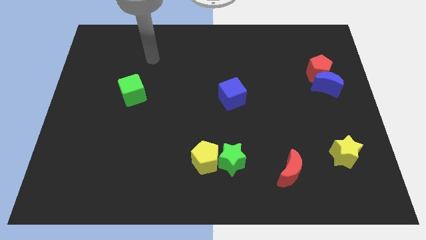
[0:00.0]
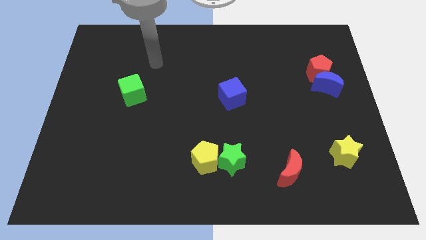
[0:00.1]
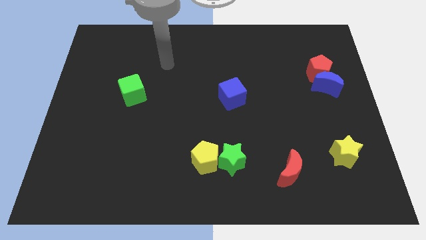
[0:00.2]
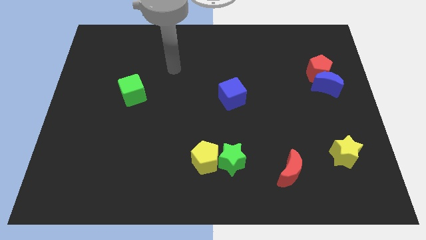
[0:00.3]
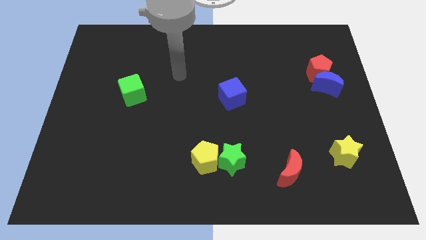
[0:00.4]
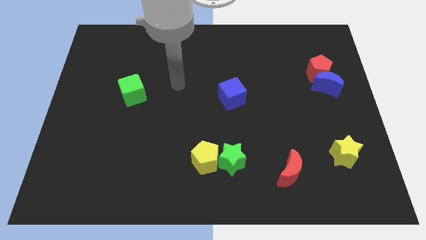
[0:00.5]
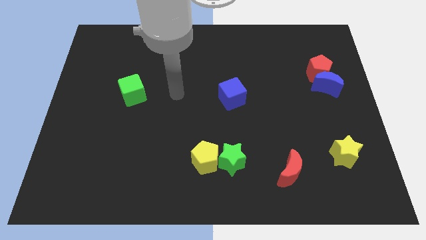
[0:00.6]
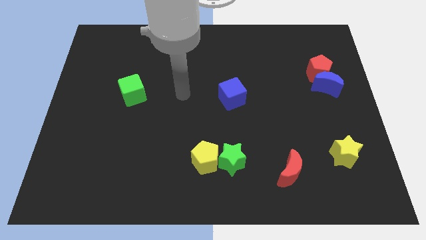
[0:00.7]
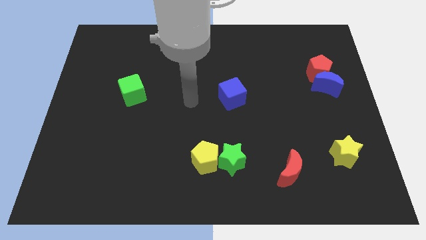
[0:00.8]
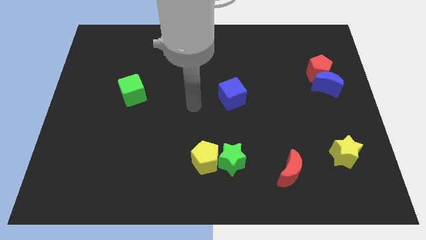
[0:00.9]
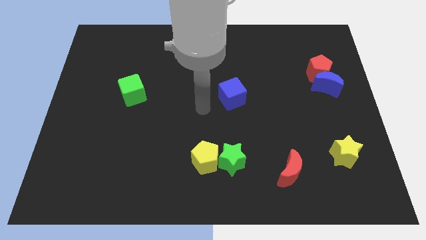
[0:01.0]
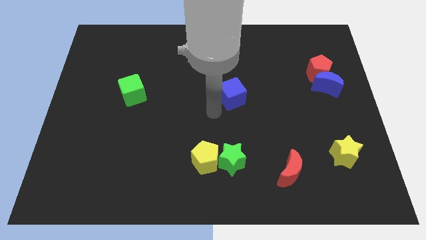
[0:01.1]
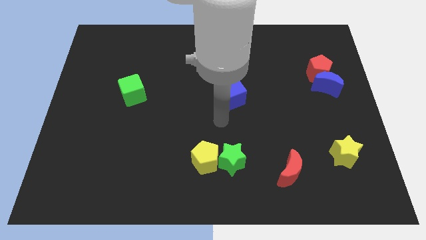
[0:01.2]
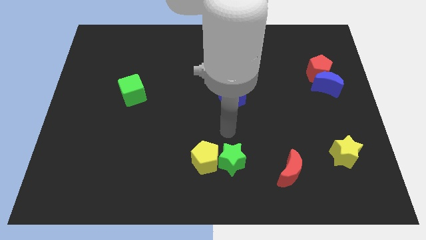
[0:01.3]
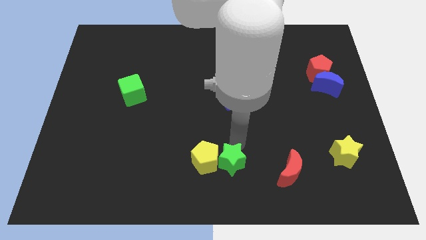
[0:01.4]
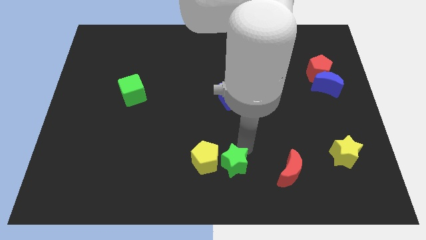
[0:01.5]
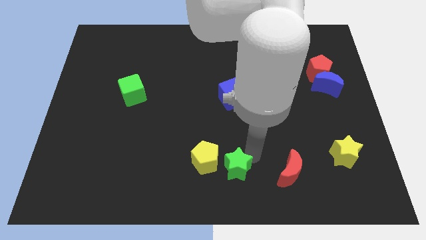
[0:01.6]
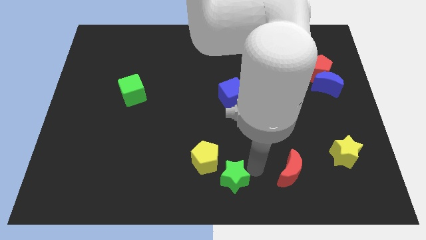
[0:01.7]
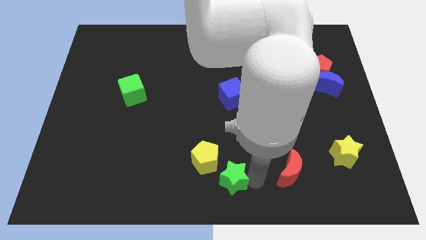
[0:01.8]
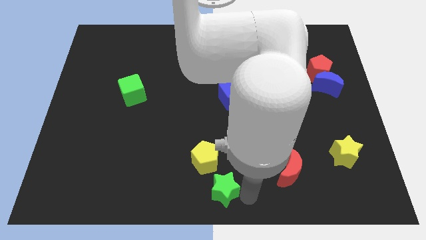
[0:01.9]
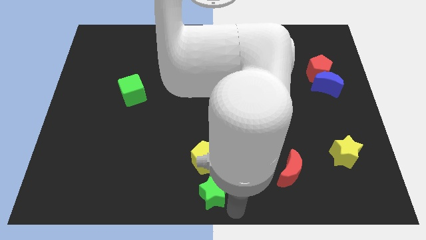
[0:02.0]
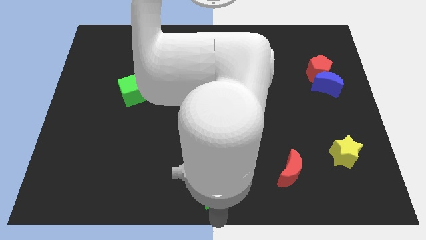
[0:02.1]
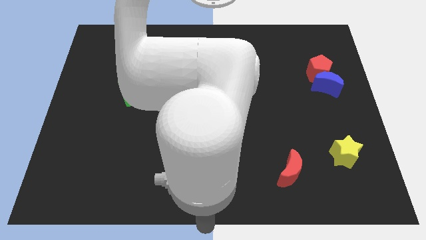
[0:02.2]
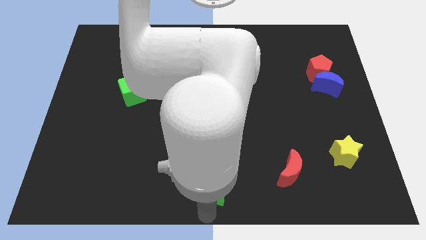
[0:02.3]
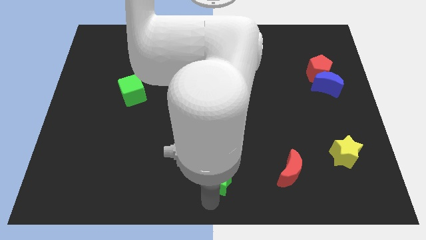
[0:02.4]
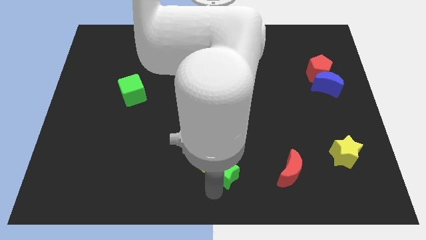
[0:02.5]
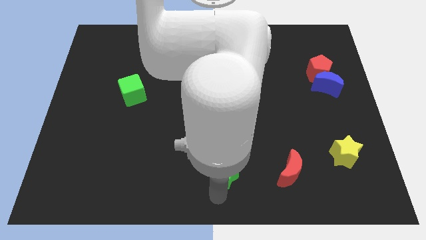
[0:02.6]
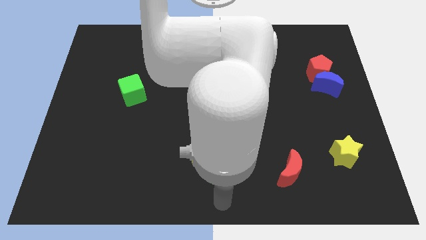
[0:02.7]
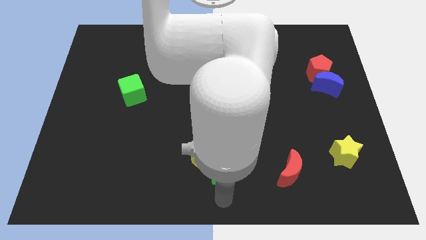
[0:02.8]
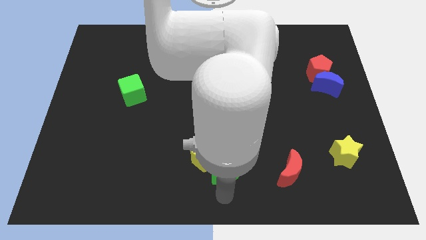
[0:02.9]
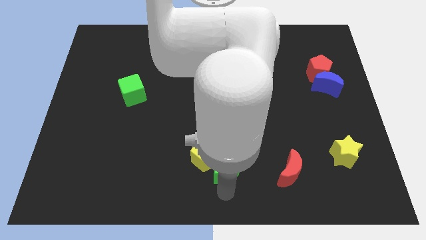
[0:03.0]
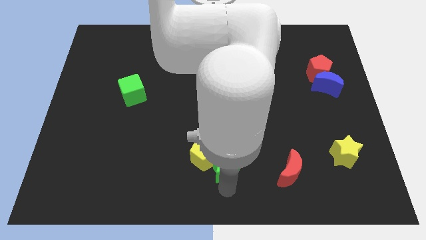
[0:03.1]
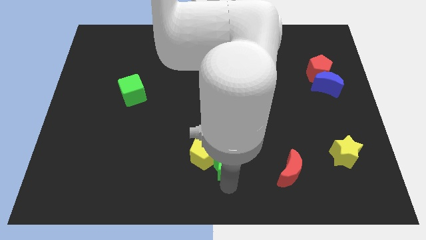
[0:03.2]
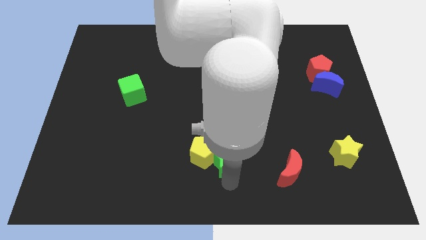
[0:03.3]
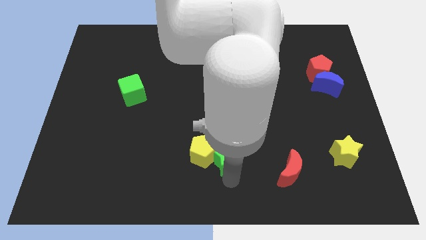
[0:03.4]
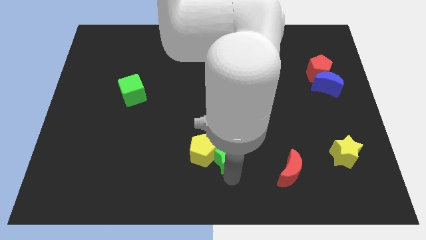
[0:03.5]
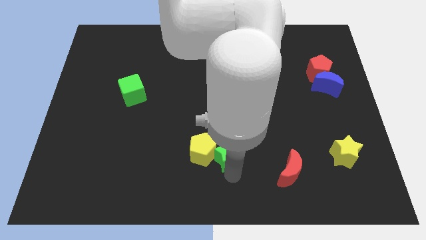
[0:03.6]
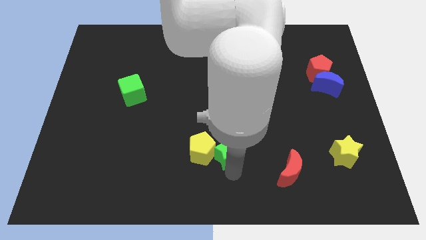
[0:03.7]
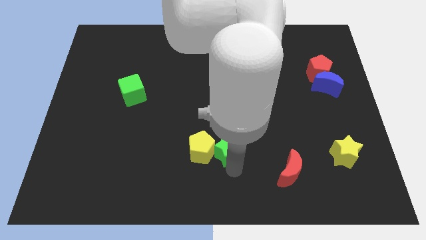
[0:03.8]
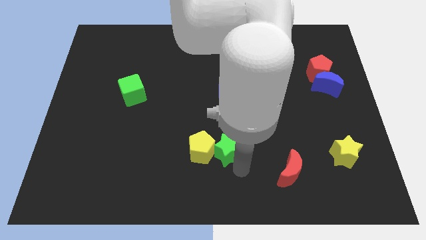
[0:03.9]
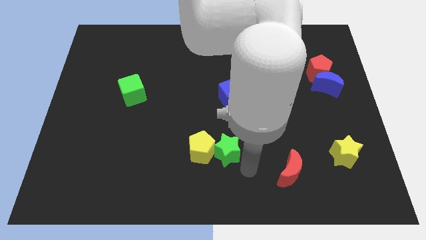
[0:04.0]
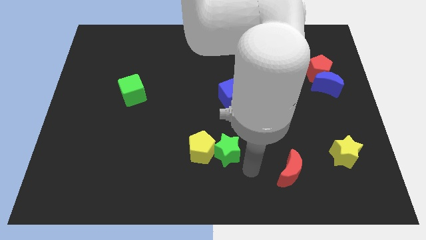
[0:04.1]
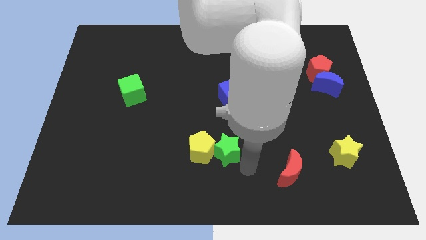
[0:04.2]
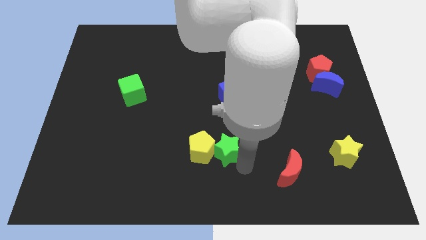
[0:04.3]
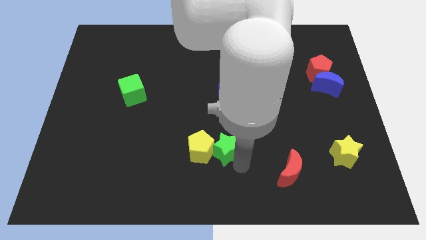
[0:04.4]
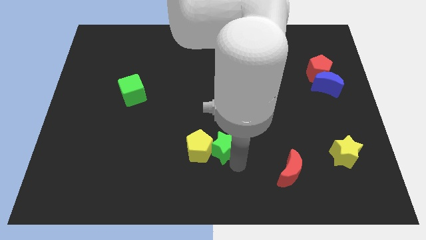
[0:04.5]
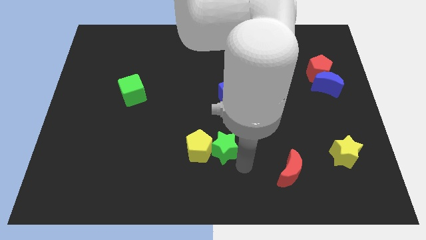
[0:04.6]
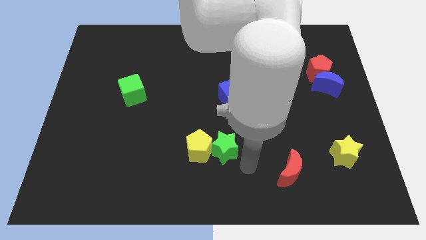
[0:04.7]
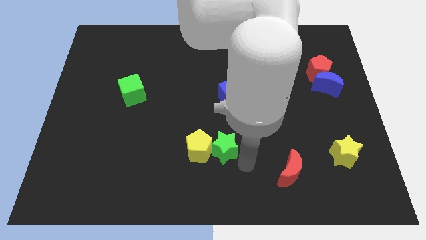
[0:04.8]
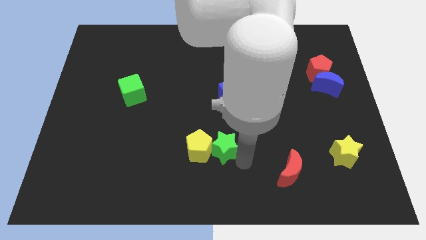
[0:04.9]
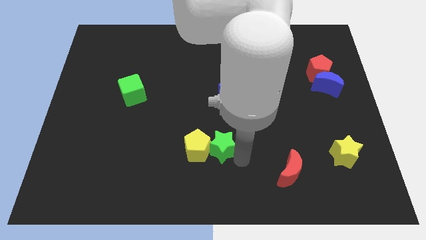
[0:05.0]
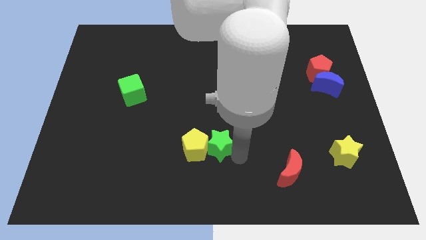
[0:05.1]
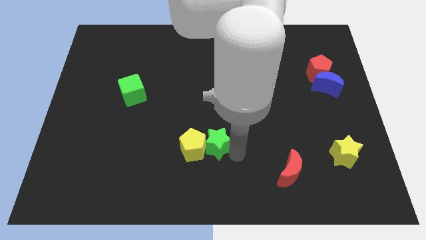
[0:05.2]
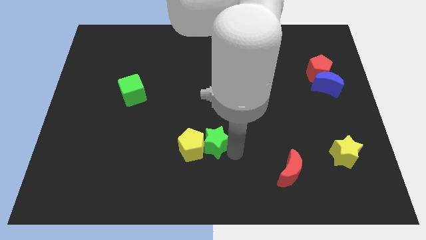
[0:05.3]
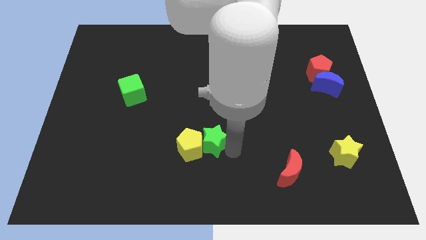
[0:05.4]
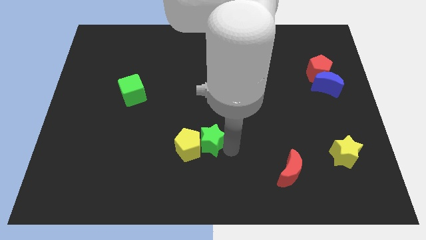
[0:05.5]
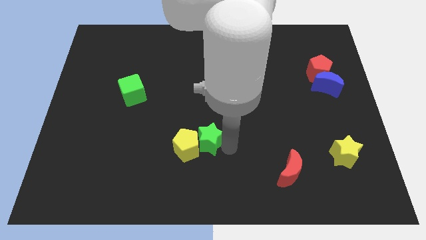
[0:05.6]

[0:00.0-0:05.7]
push the green star slightly diagonally upwards and left

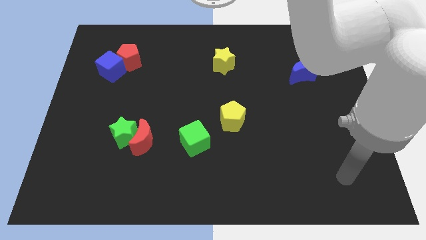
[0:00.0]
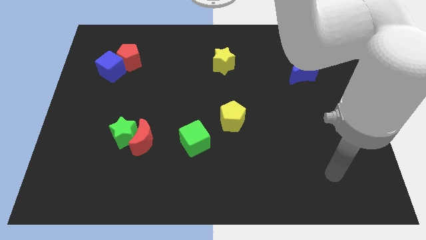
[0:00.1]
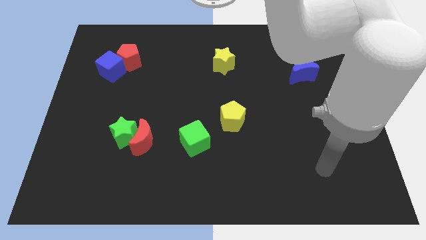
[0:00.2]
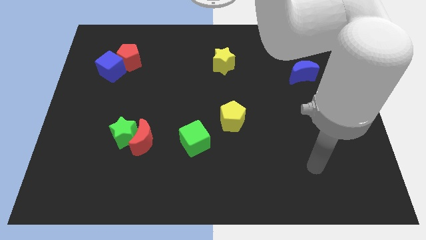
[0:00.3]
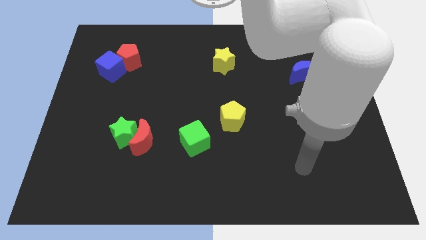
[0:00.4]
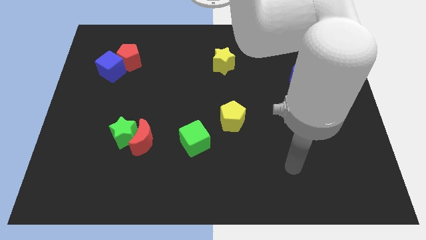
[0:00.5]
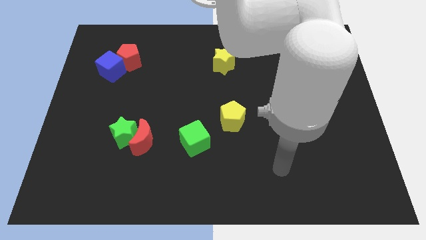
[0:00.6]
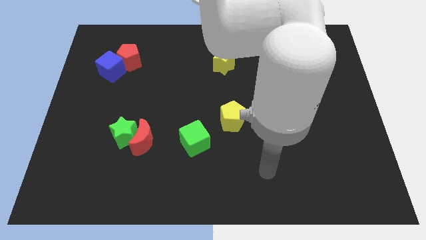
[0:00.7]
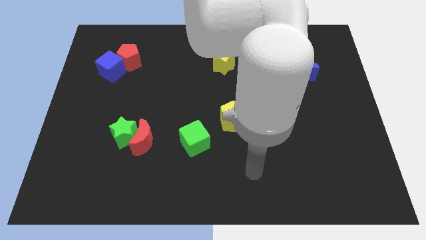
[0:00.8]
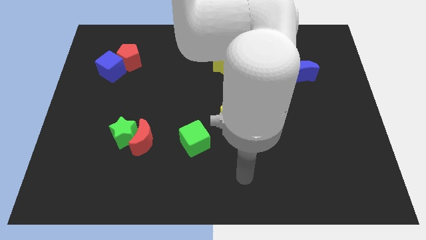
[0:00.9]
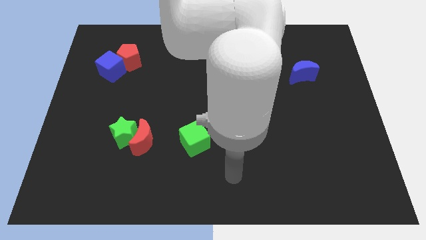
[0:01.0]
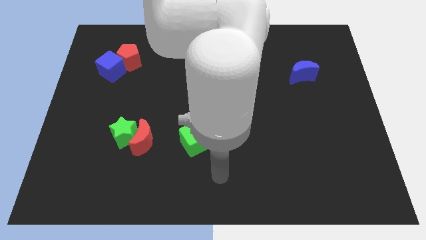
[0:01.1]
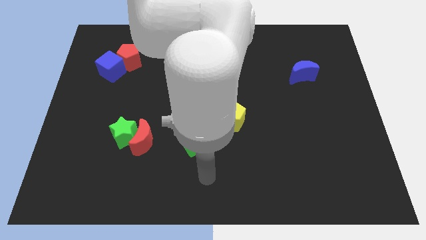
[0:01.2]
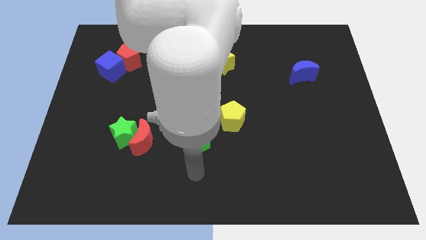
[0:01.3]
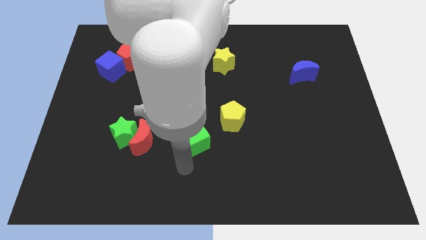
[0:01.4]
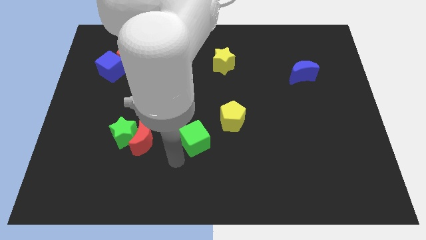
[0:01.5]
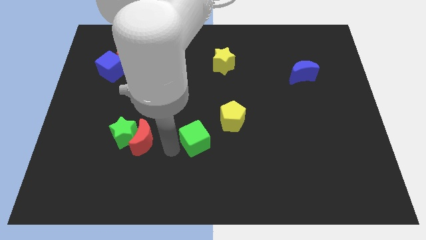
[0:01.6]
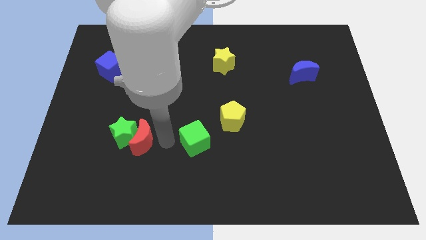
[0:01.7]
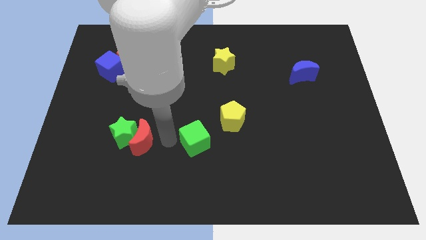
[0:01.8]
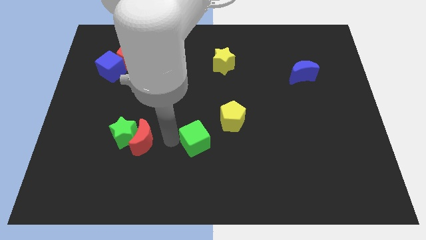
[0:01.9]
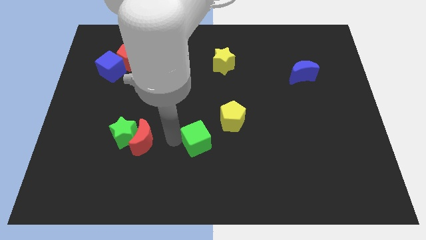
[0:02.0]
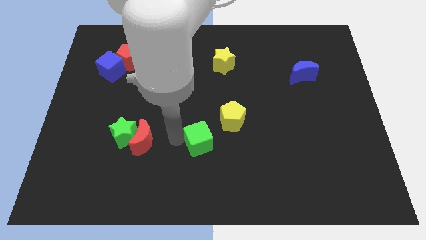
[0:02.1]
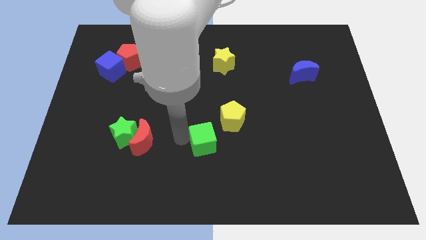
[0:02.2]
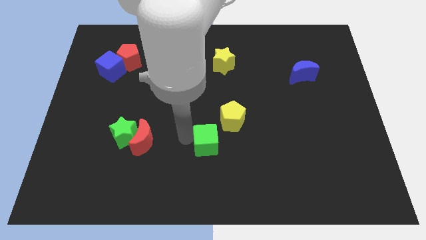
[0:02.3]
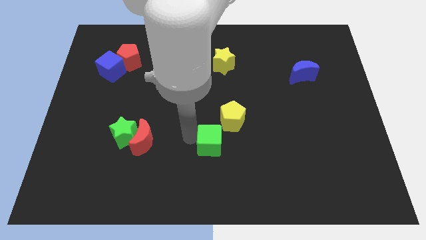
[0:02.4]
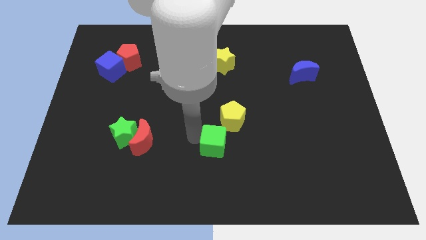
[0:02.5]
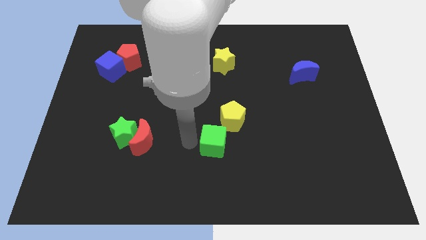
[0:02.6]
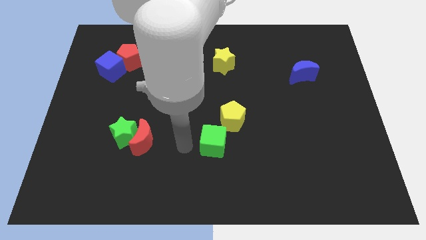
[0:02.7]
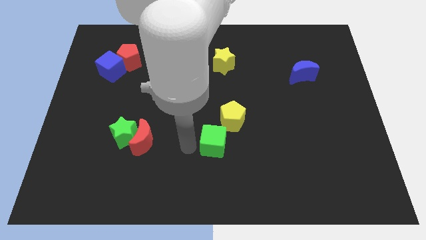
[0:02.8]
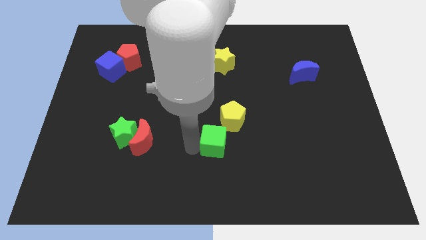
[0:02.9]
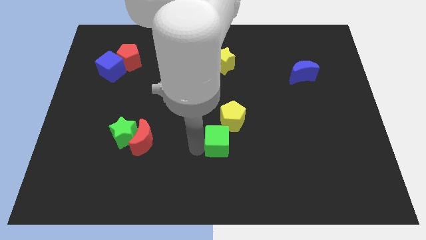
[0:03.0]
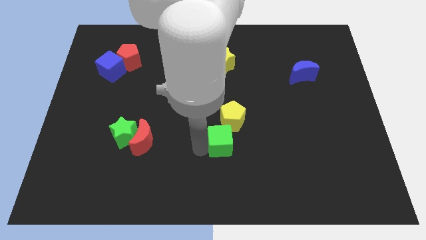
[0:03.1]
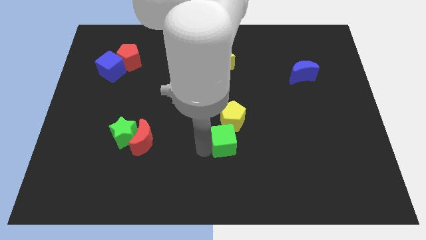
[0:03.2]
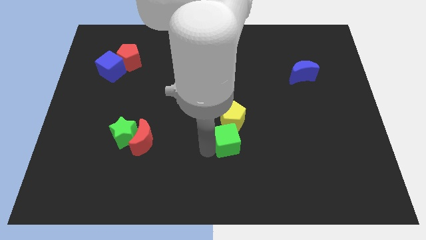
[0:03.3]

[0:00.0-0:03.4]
slightly slide the green cube to the right
